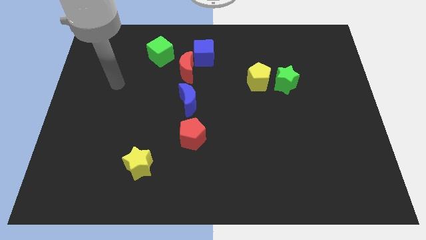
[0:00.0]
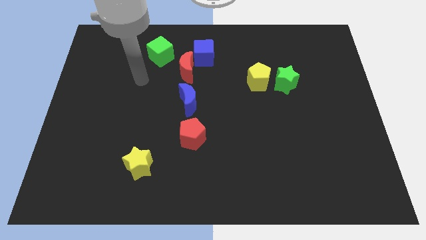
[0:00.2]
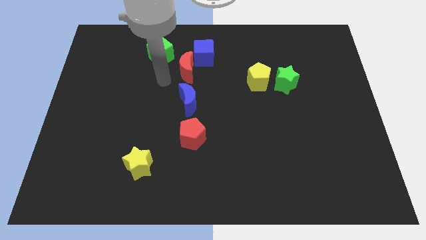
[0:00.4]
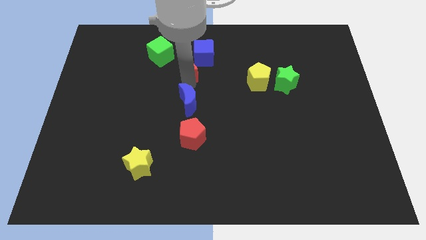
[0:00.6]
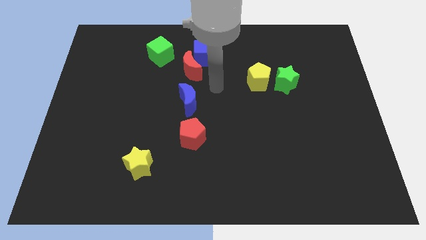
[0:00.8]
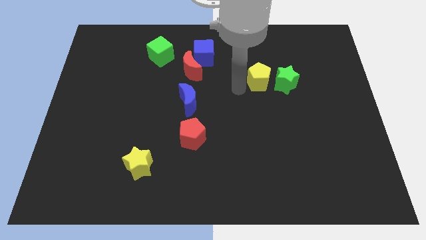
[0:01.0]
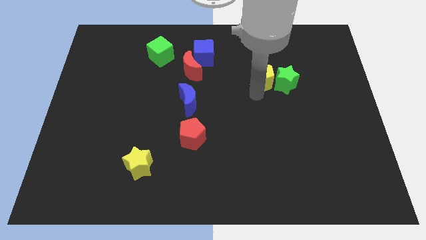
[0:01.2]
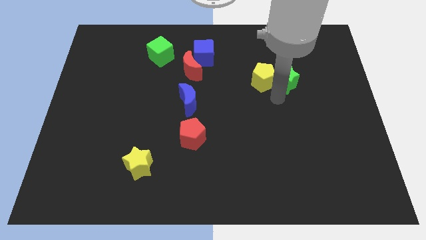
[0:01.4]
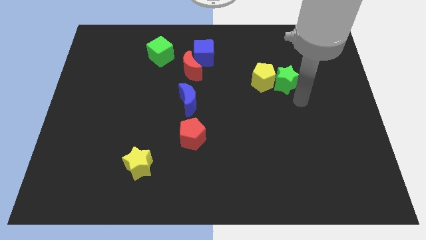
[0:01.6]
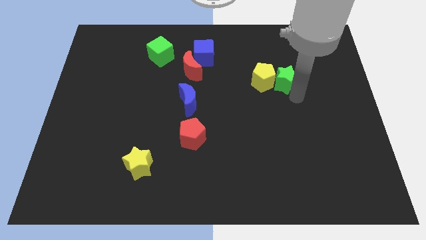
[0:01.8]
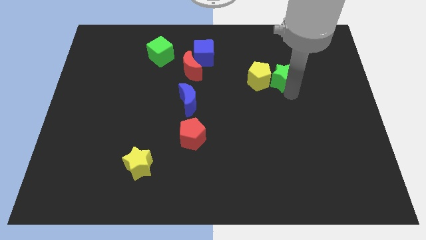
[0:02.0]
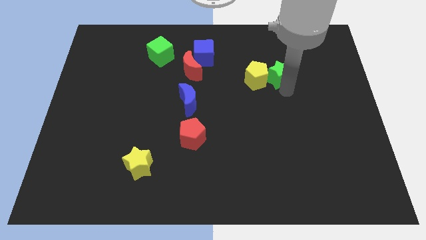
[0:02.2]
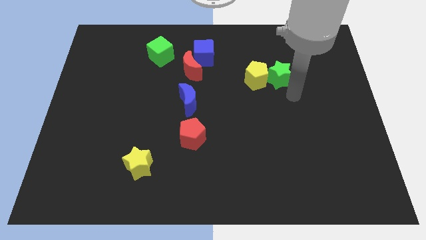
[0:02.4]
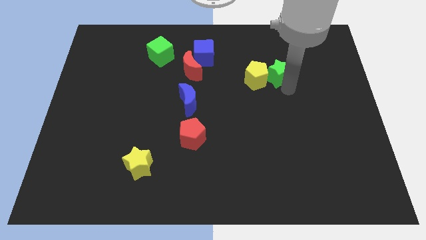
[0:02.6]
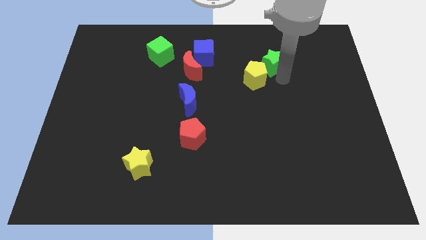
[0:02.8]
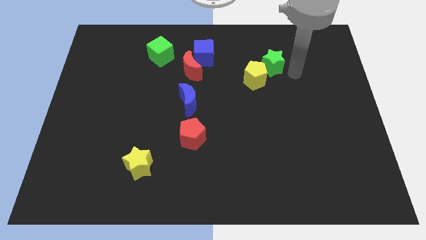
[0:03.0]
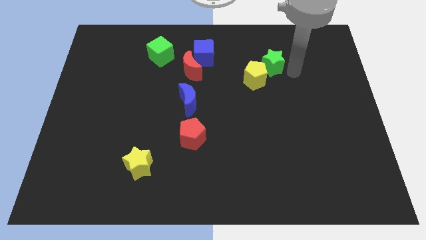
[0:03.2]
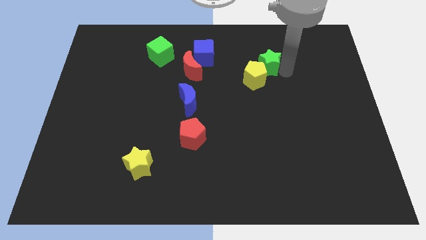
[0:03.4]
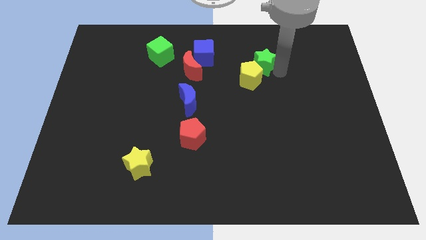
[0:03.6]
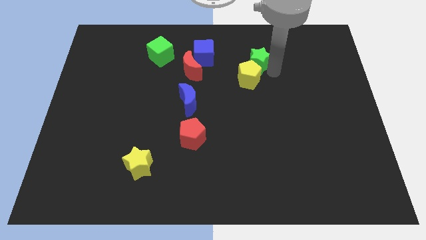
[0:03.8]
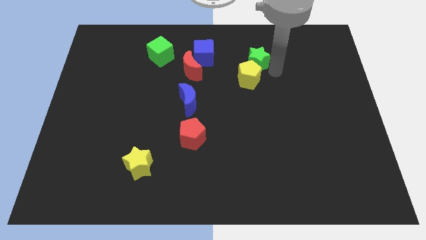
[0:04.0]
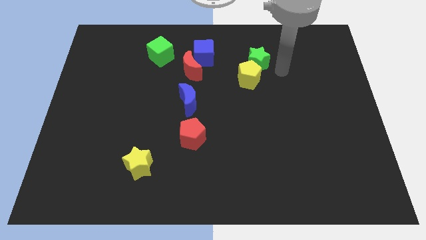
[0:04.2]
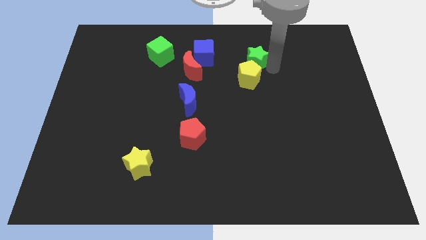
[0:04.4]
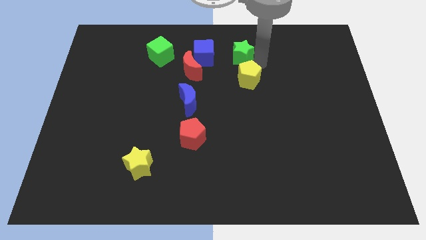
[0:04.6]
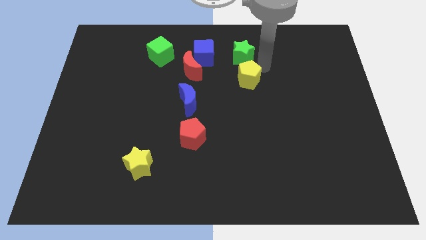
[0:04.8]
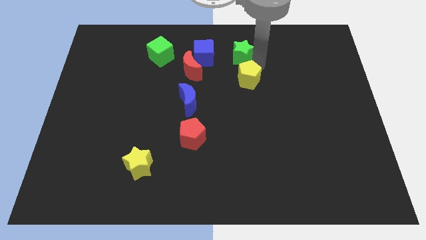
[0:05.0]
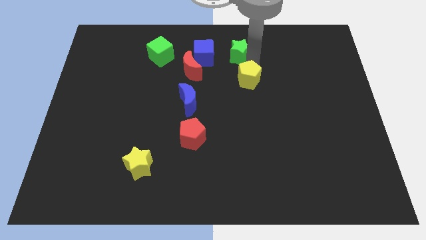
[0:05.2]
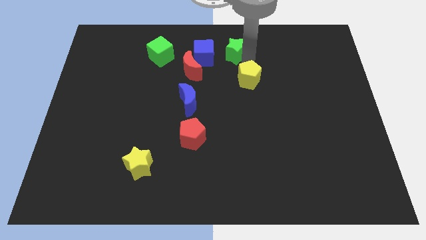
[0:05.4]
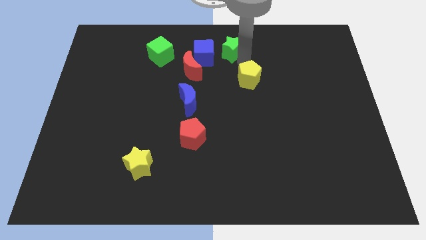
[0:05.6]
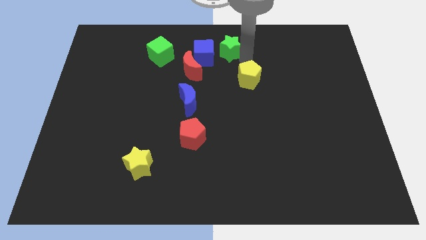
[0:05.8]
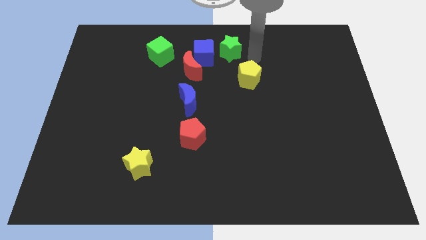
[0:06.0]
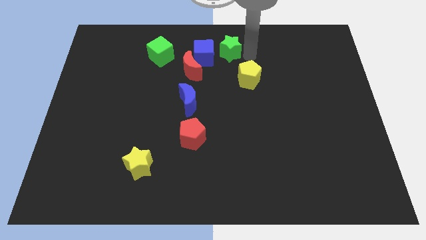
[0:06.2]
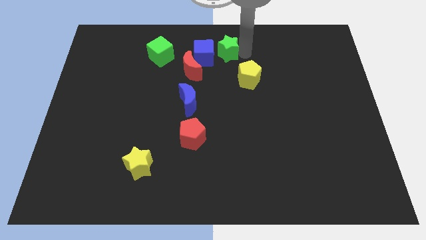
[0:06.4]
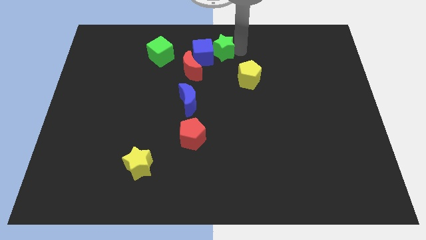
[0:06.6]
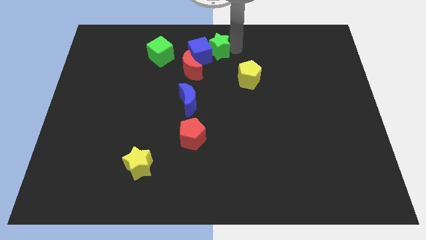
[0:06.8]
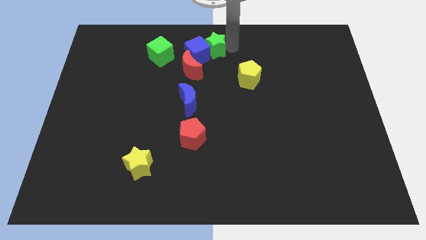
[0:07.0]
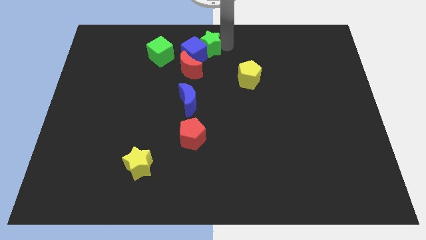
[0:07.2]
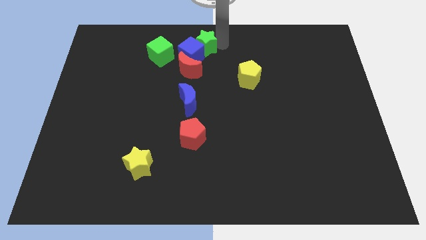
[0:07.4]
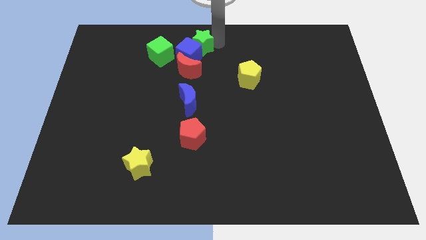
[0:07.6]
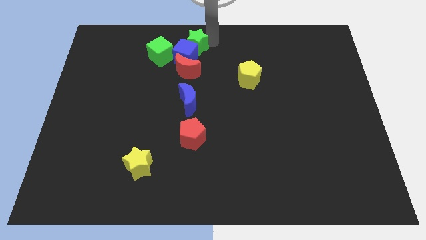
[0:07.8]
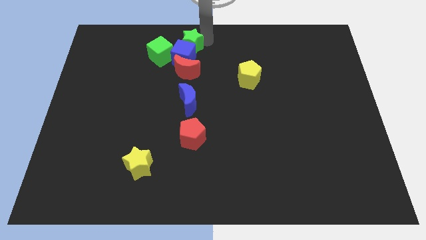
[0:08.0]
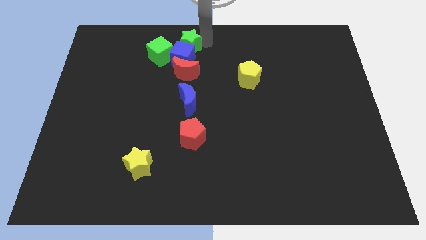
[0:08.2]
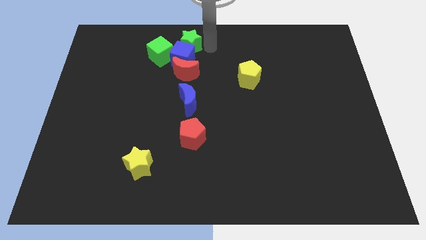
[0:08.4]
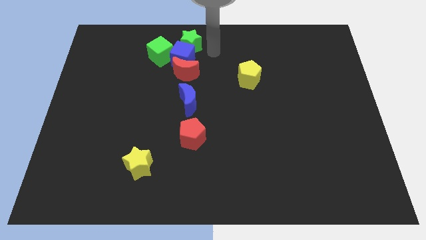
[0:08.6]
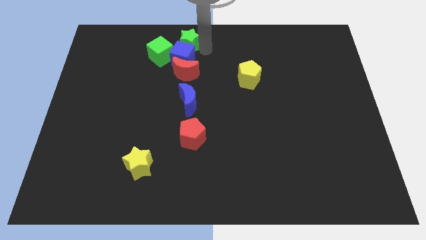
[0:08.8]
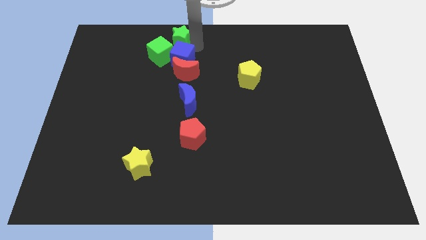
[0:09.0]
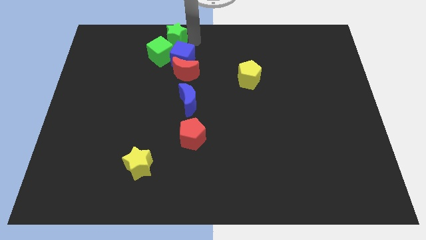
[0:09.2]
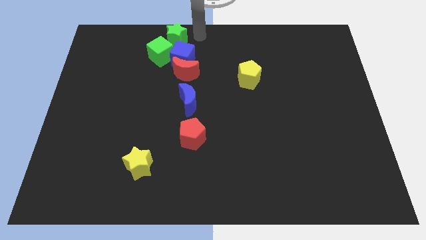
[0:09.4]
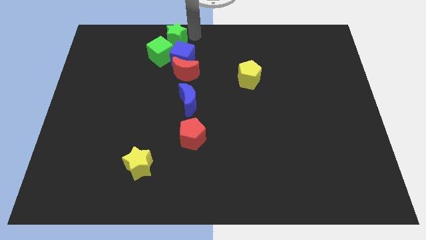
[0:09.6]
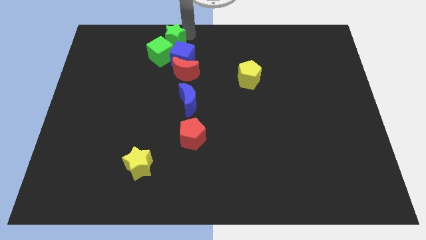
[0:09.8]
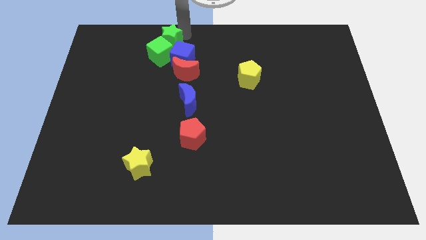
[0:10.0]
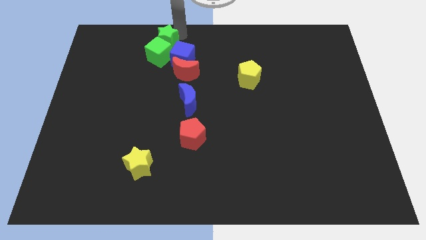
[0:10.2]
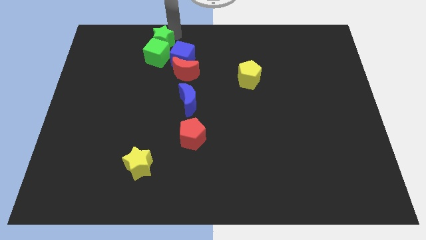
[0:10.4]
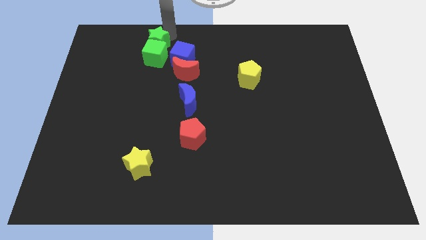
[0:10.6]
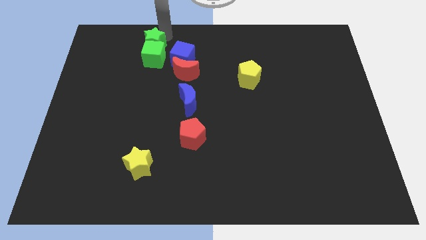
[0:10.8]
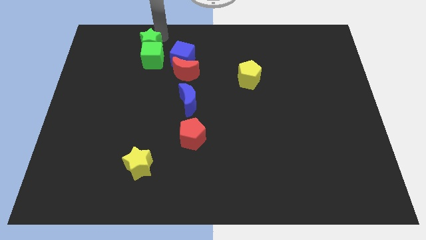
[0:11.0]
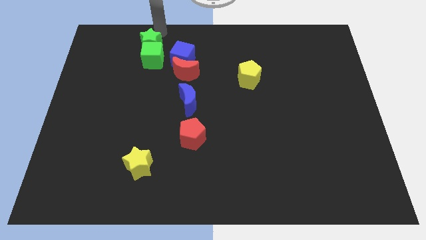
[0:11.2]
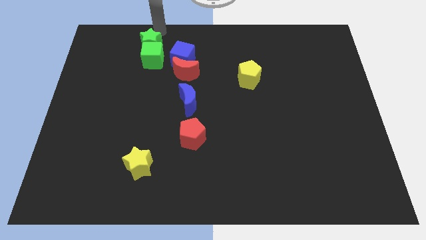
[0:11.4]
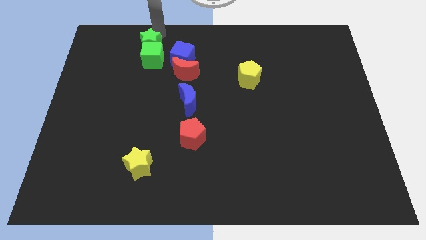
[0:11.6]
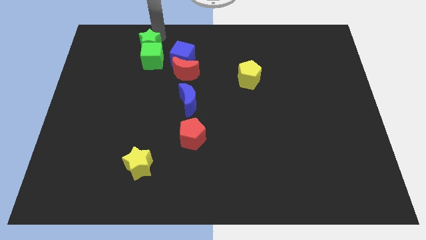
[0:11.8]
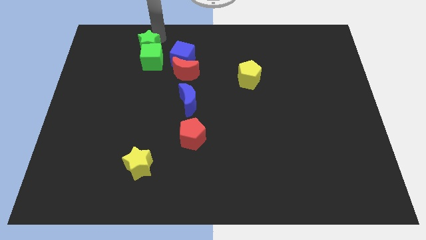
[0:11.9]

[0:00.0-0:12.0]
slide the green star just left of the blue cube

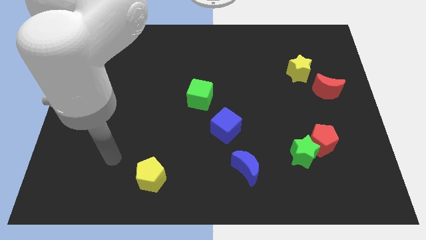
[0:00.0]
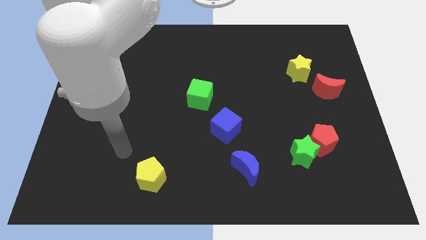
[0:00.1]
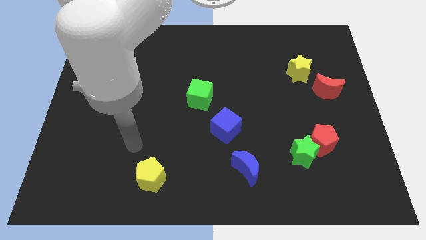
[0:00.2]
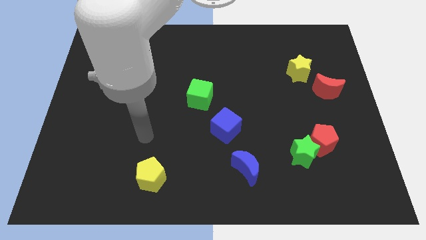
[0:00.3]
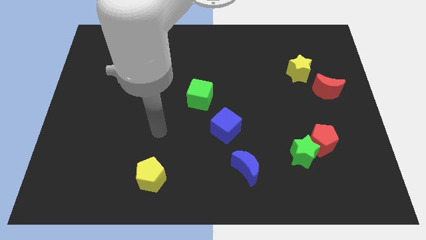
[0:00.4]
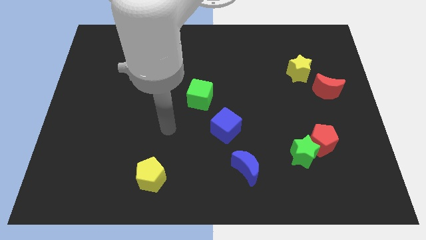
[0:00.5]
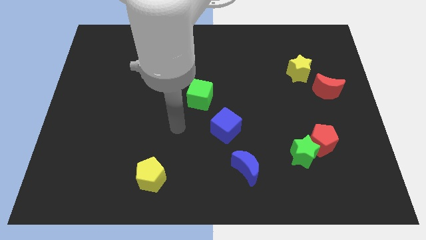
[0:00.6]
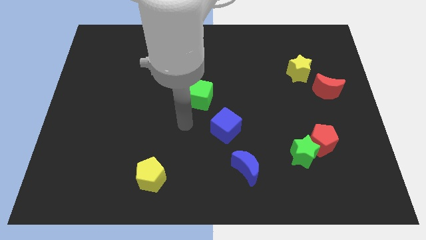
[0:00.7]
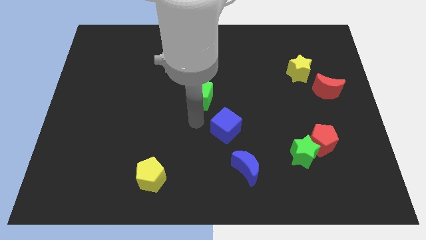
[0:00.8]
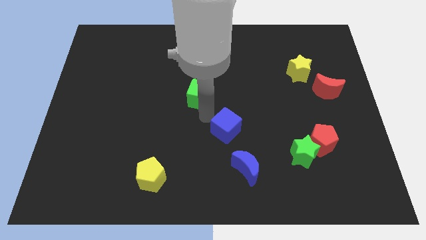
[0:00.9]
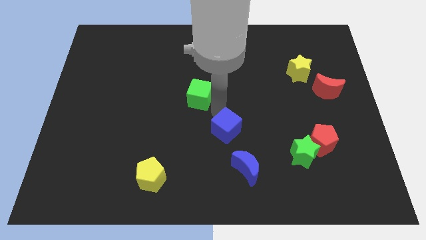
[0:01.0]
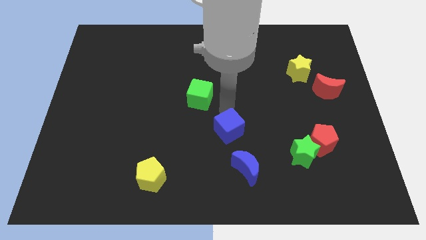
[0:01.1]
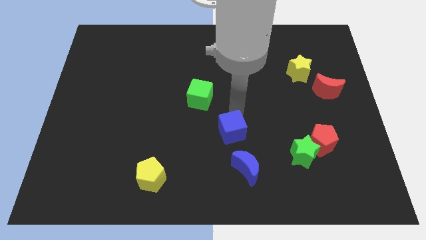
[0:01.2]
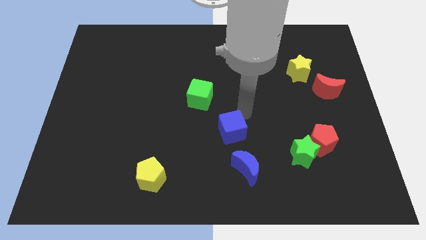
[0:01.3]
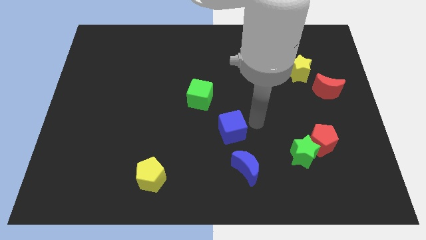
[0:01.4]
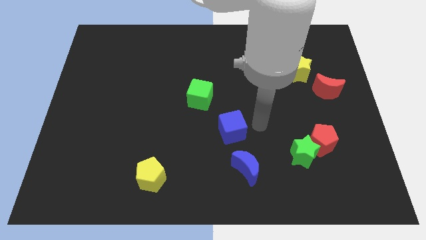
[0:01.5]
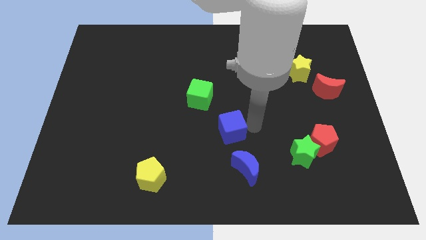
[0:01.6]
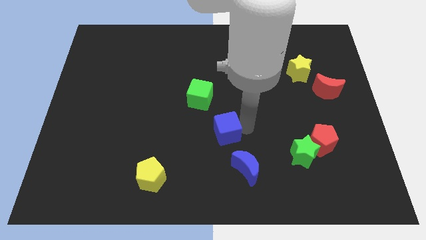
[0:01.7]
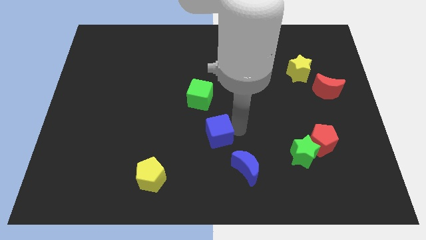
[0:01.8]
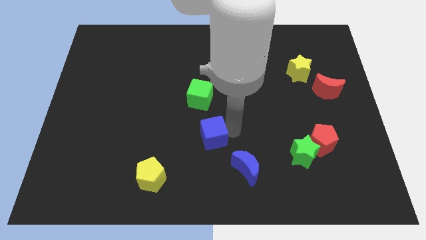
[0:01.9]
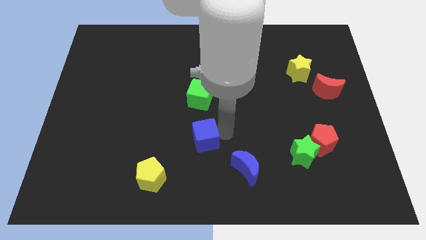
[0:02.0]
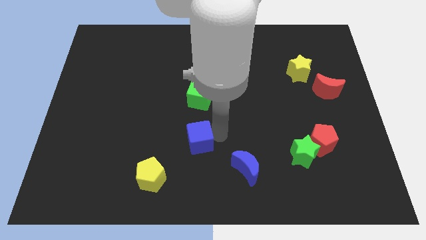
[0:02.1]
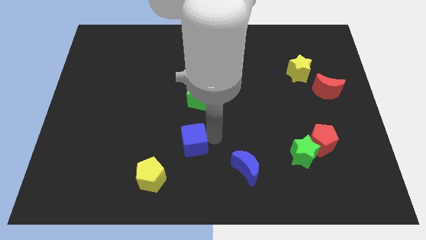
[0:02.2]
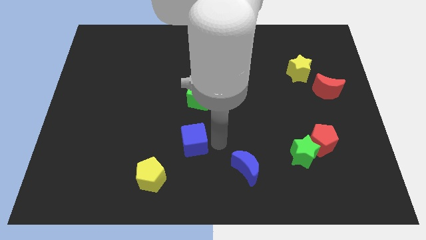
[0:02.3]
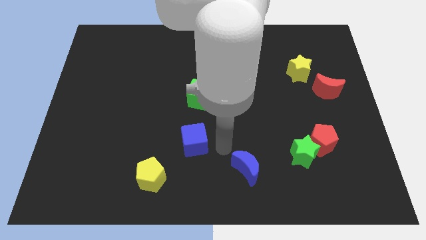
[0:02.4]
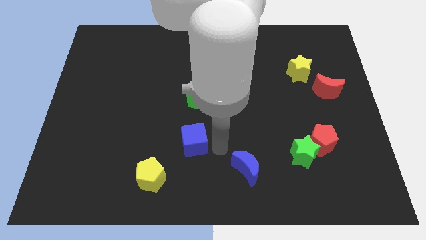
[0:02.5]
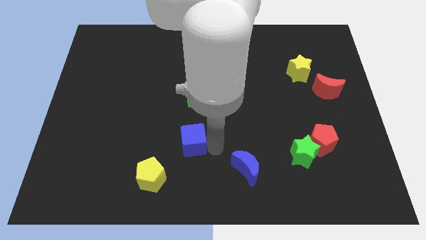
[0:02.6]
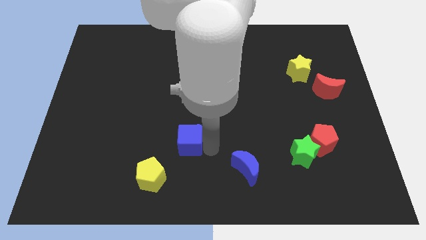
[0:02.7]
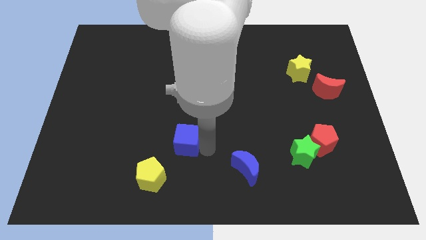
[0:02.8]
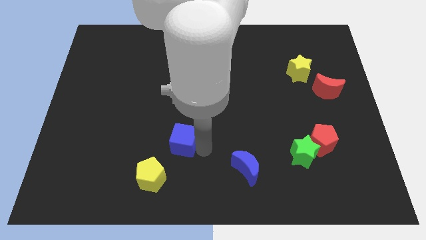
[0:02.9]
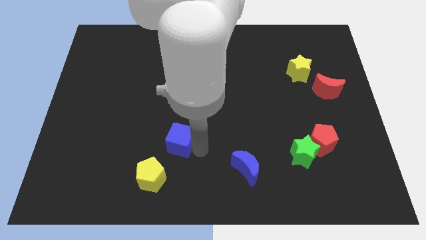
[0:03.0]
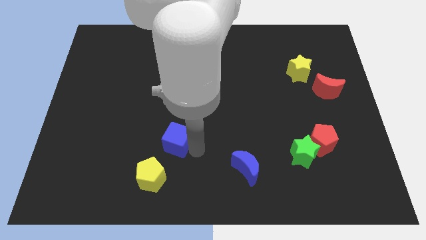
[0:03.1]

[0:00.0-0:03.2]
put the blue cube to the top of the yellow pentagon
